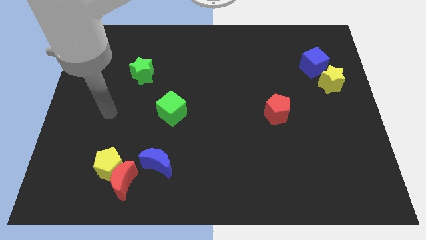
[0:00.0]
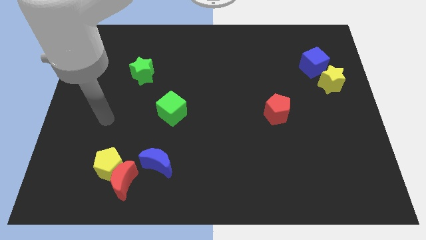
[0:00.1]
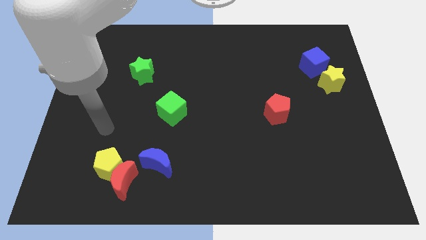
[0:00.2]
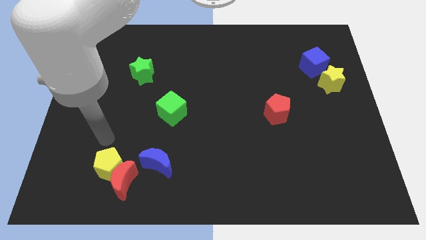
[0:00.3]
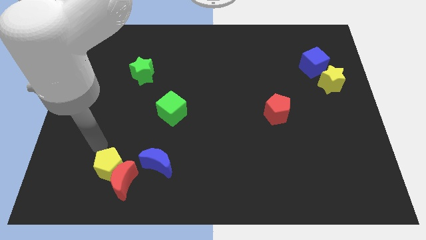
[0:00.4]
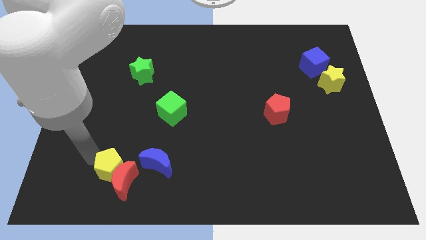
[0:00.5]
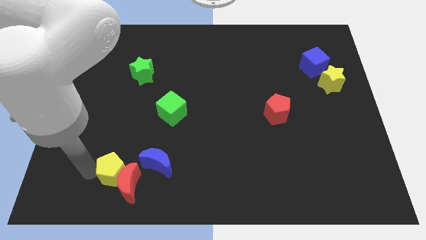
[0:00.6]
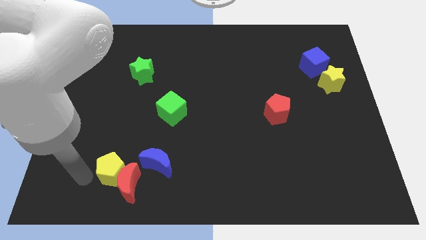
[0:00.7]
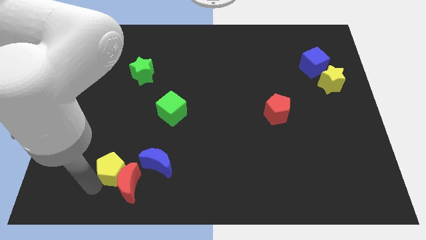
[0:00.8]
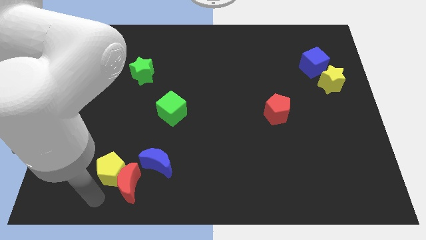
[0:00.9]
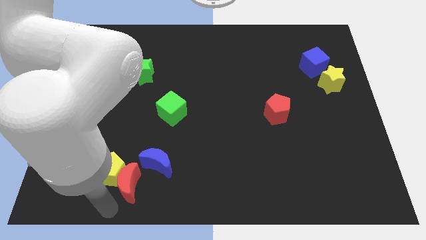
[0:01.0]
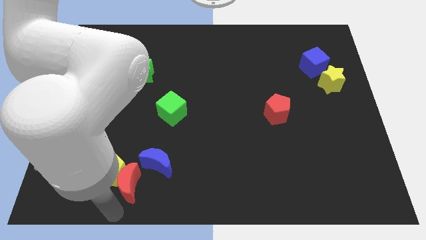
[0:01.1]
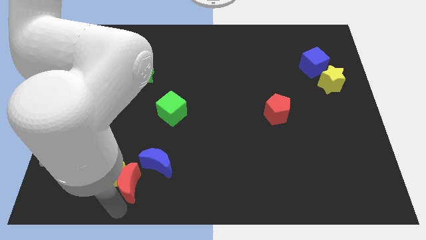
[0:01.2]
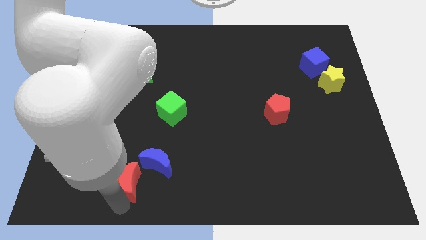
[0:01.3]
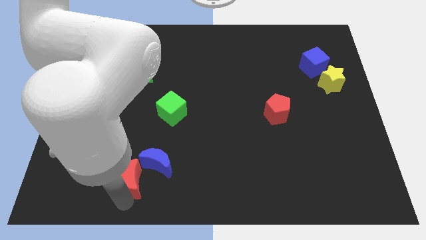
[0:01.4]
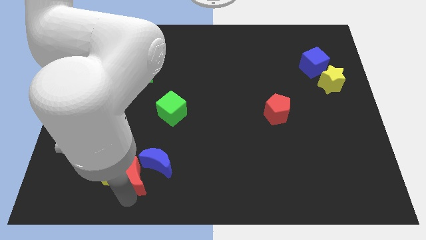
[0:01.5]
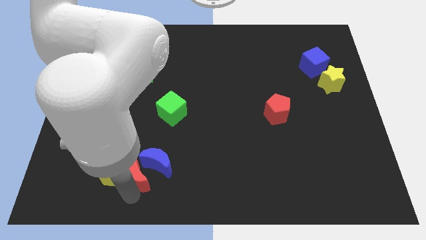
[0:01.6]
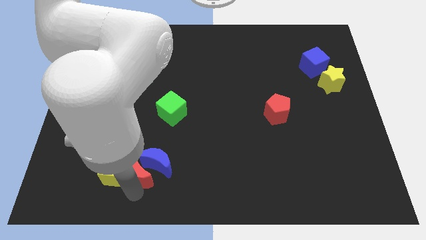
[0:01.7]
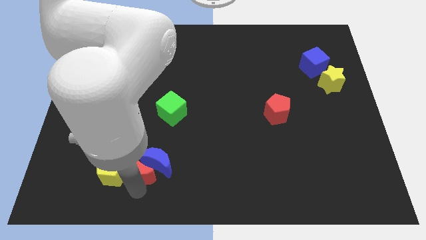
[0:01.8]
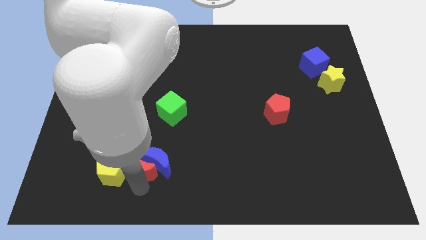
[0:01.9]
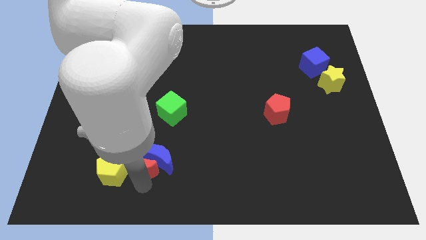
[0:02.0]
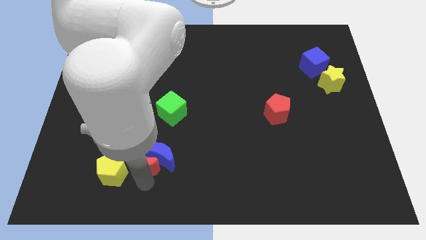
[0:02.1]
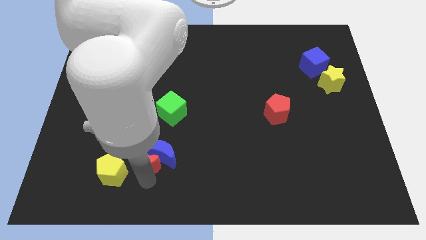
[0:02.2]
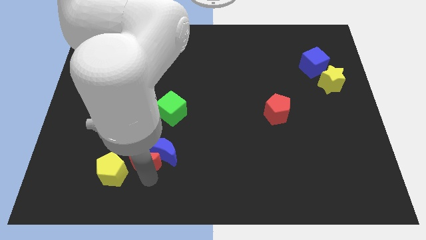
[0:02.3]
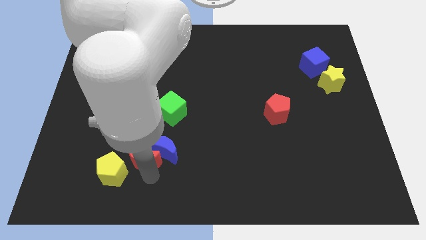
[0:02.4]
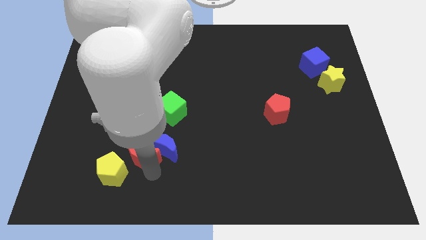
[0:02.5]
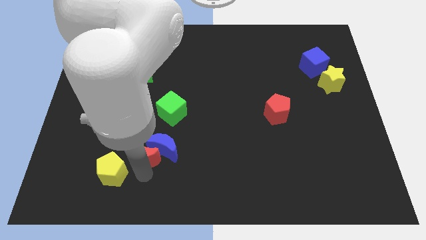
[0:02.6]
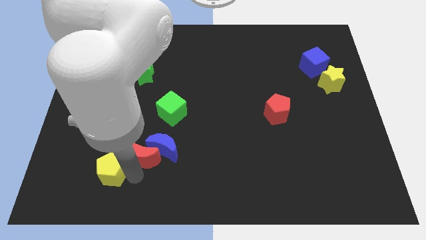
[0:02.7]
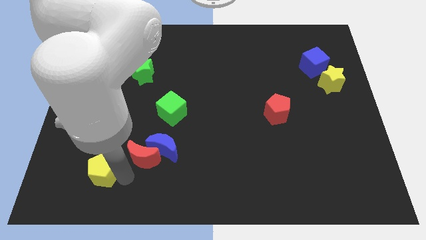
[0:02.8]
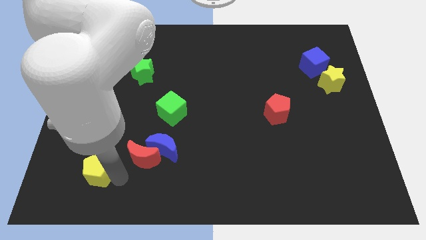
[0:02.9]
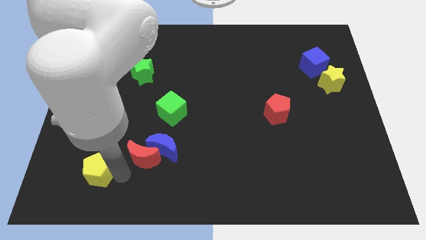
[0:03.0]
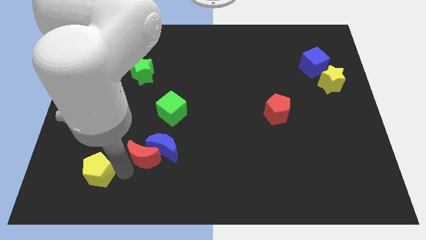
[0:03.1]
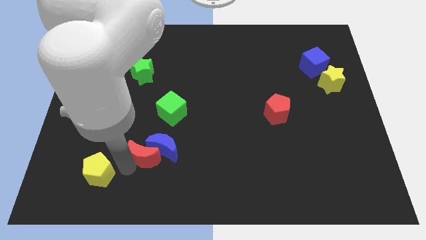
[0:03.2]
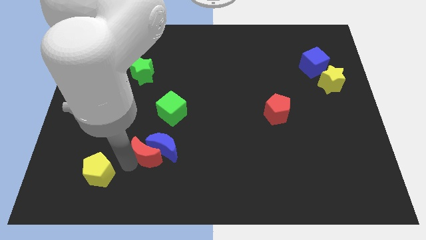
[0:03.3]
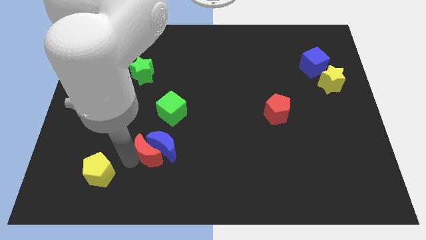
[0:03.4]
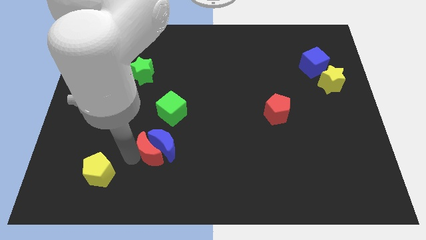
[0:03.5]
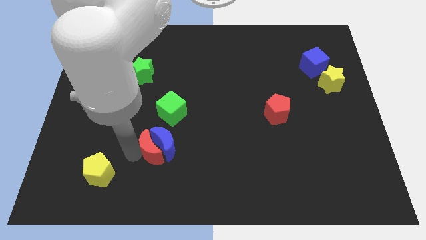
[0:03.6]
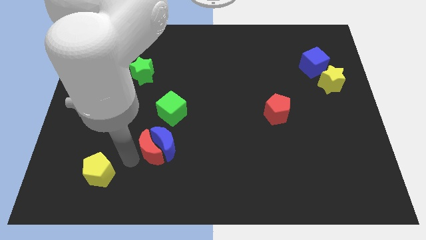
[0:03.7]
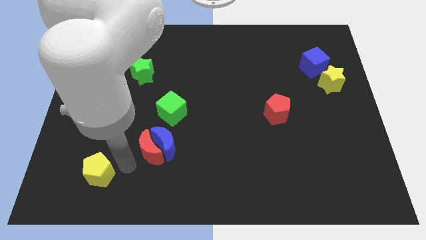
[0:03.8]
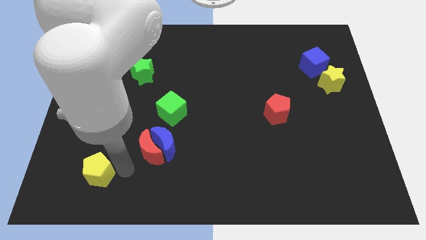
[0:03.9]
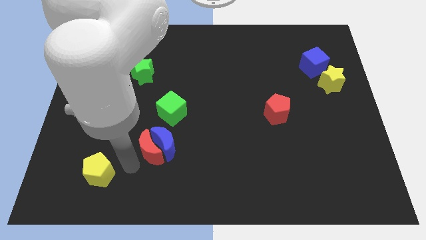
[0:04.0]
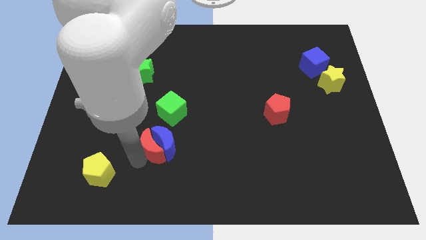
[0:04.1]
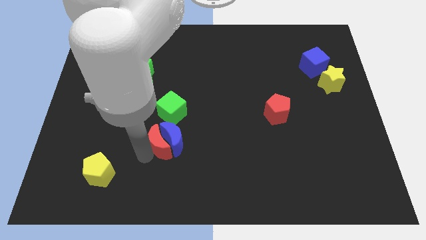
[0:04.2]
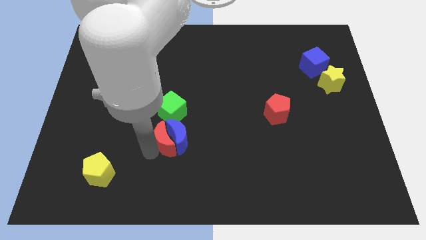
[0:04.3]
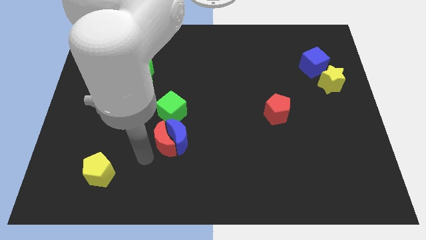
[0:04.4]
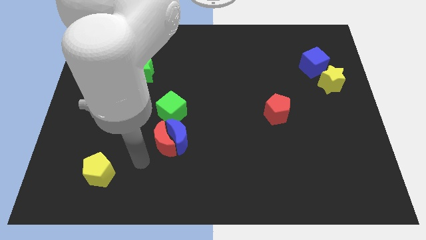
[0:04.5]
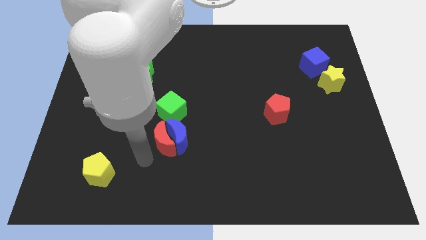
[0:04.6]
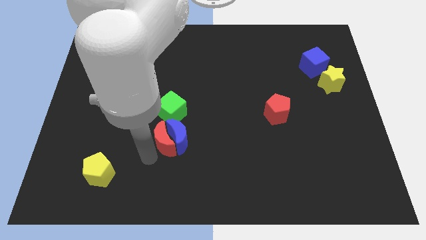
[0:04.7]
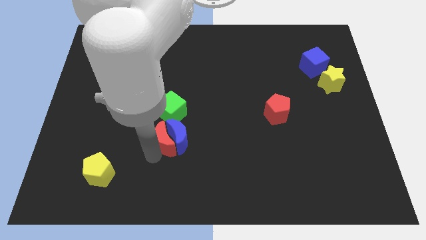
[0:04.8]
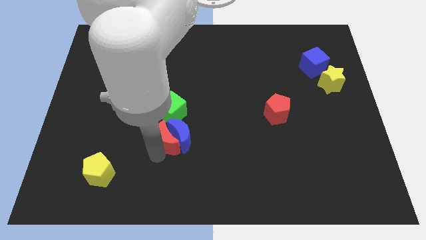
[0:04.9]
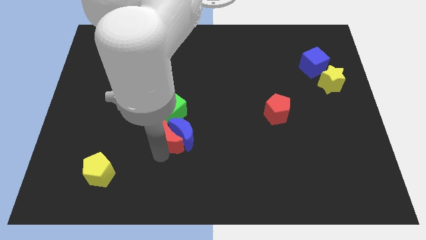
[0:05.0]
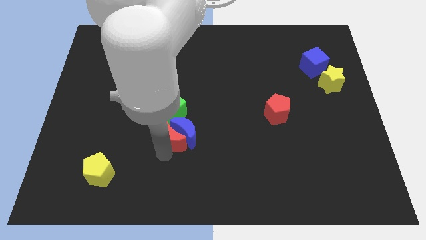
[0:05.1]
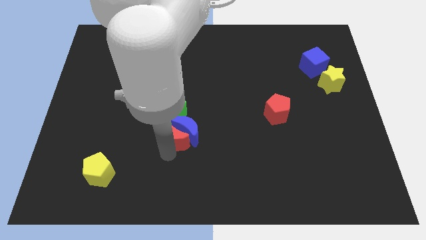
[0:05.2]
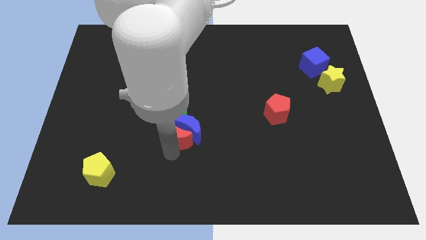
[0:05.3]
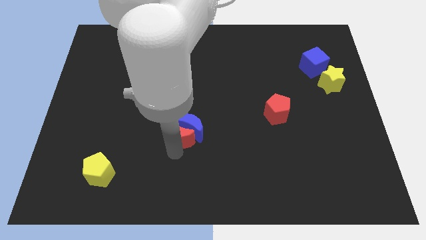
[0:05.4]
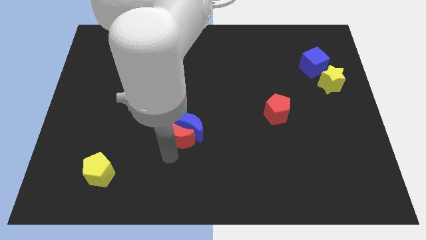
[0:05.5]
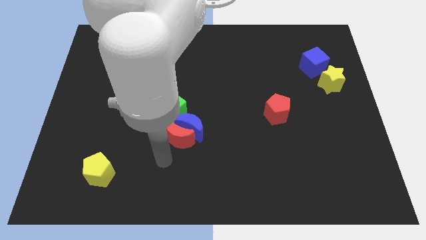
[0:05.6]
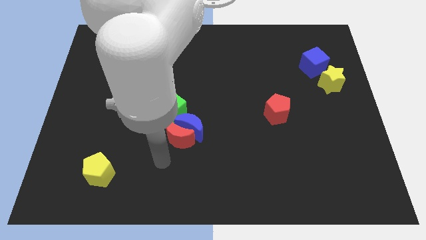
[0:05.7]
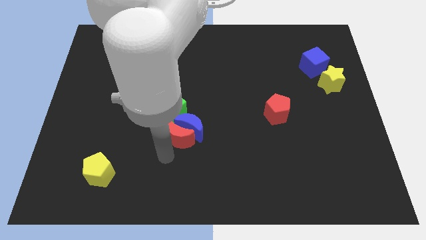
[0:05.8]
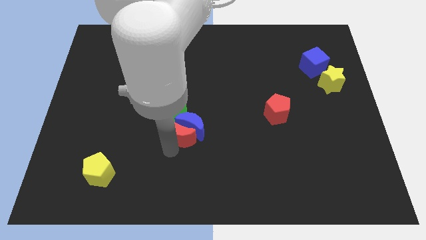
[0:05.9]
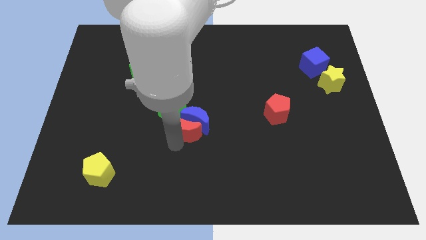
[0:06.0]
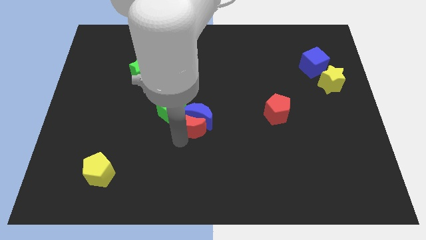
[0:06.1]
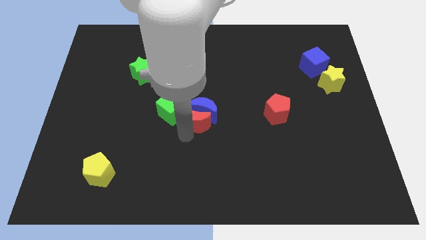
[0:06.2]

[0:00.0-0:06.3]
move the red moon up and to the right diagonally

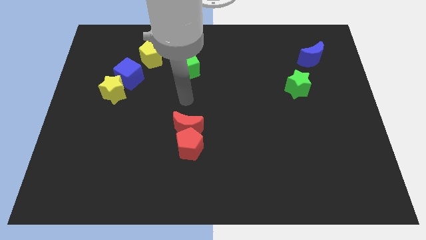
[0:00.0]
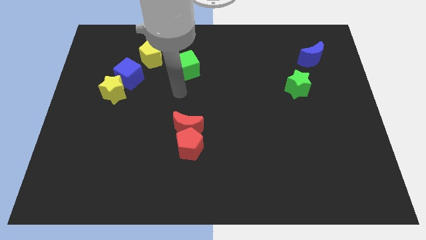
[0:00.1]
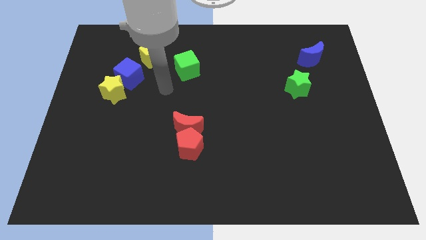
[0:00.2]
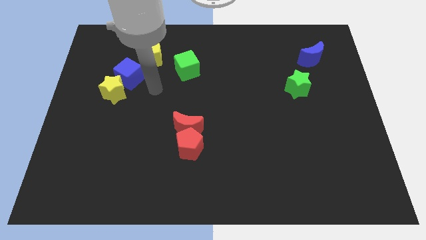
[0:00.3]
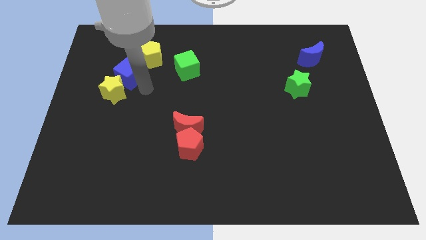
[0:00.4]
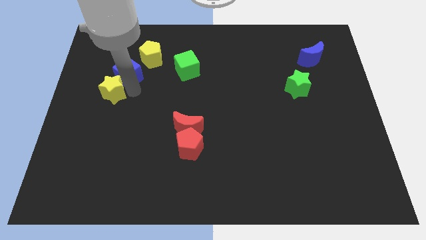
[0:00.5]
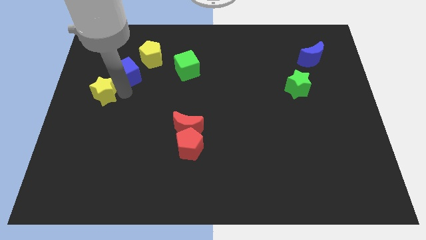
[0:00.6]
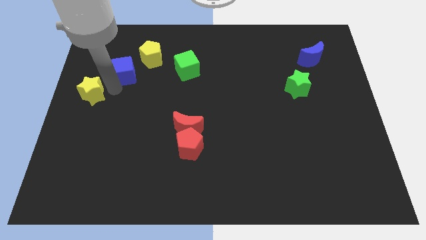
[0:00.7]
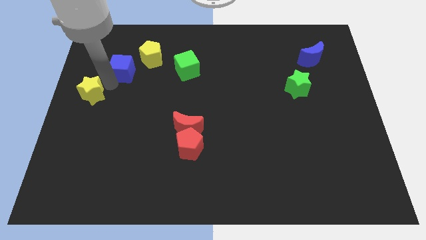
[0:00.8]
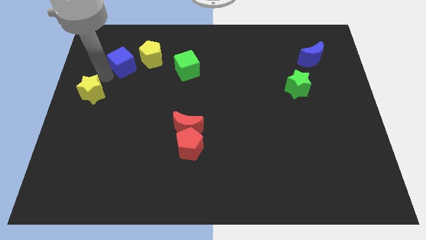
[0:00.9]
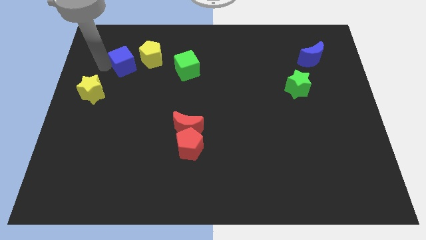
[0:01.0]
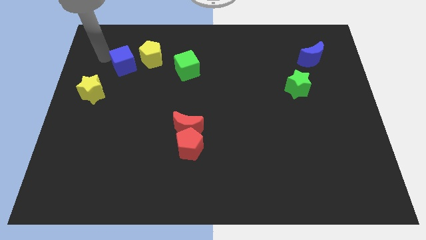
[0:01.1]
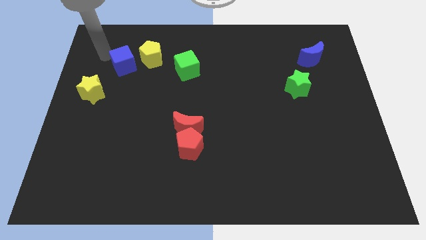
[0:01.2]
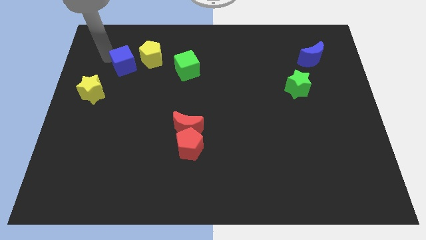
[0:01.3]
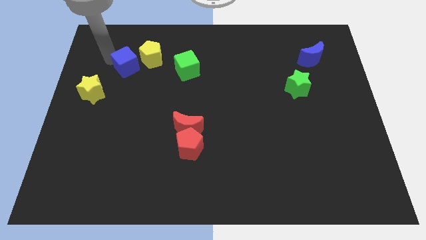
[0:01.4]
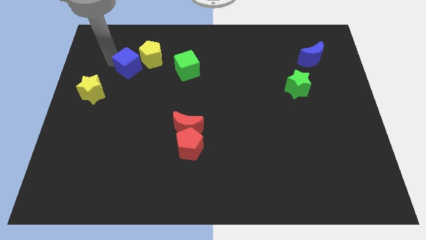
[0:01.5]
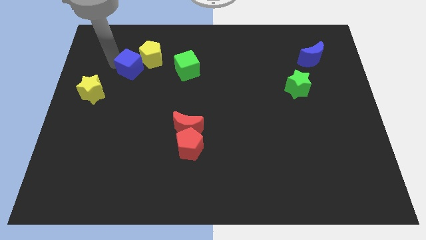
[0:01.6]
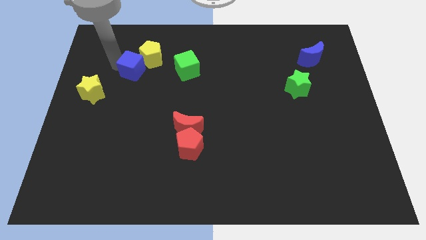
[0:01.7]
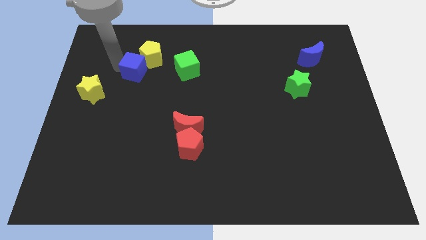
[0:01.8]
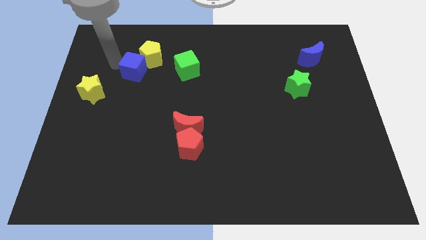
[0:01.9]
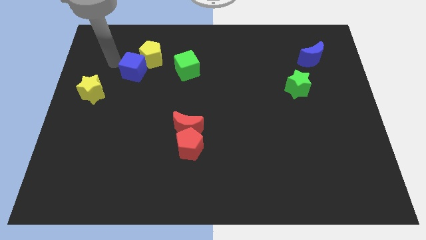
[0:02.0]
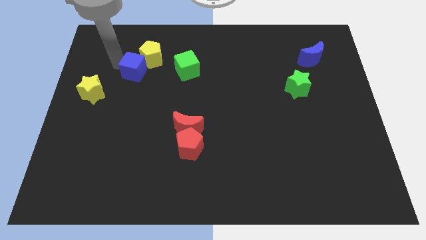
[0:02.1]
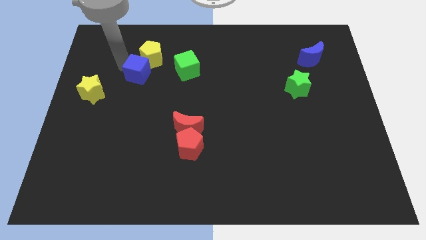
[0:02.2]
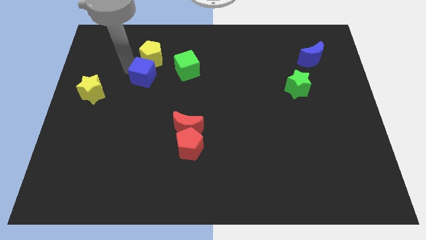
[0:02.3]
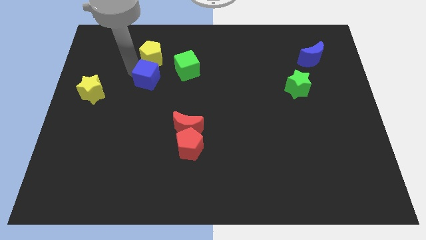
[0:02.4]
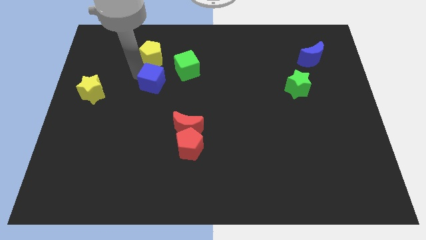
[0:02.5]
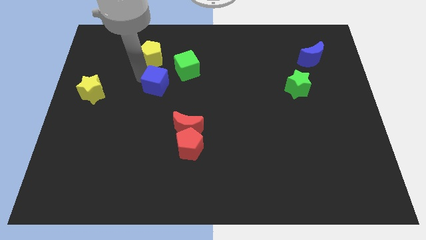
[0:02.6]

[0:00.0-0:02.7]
move the blue cube to the right a bit
